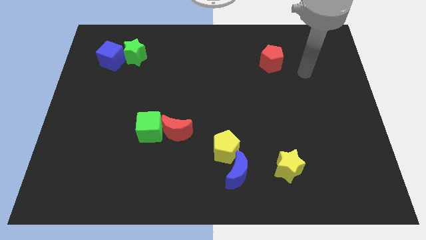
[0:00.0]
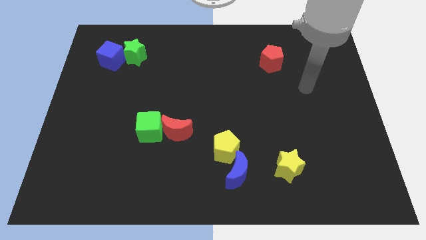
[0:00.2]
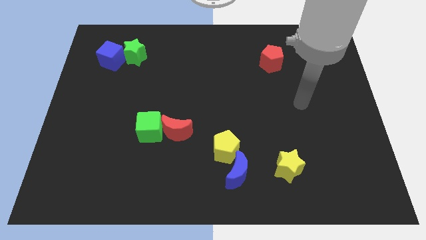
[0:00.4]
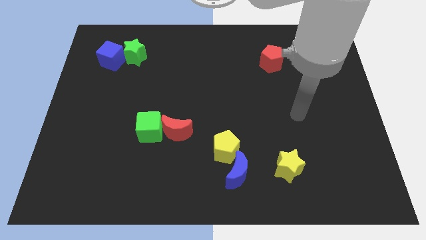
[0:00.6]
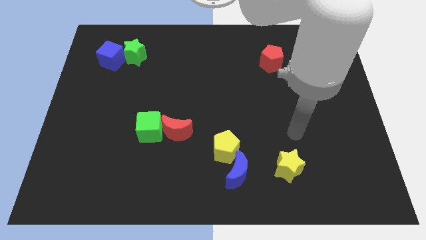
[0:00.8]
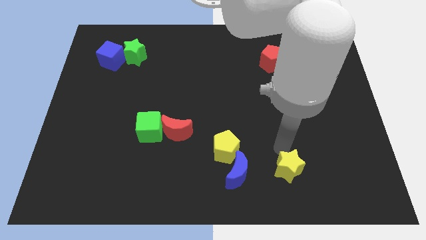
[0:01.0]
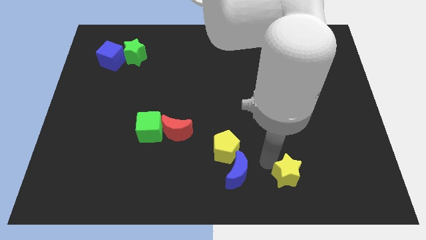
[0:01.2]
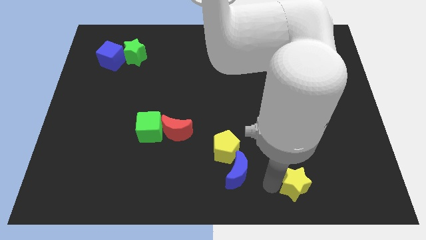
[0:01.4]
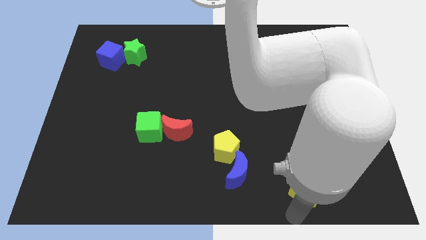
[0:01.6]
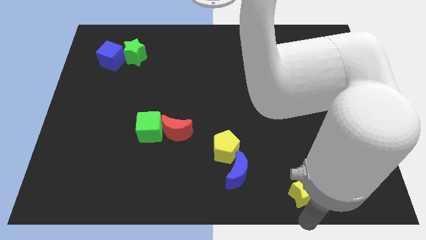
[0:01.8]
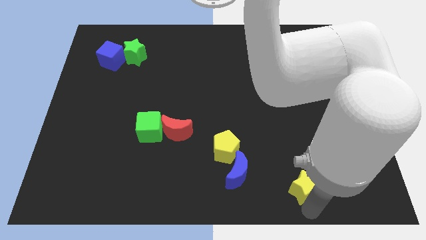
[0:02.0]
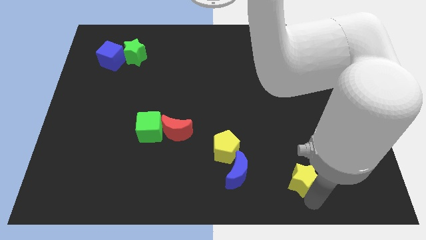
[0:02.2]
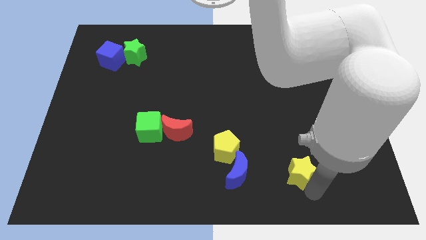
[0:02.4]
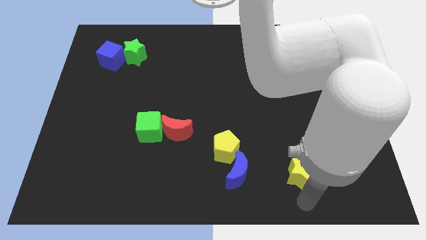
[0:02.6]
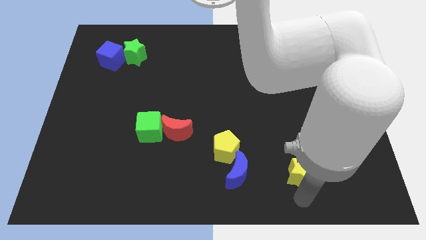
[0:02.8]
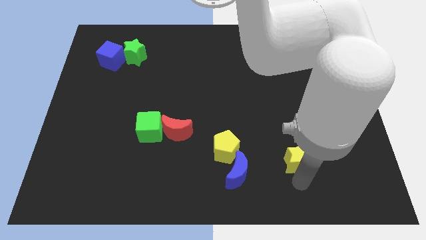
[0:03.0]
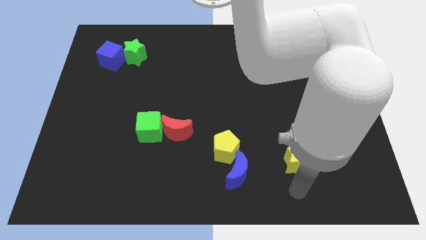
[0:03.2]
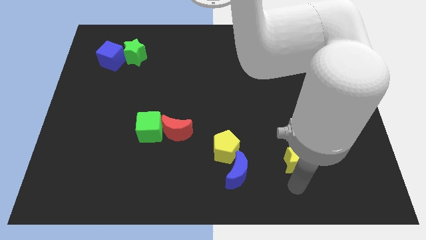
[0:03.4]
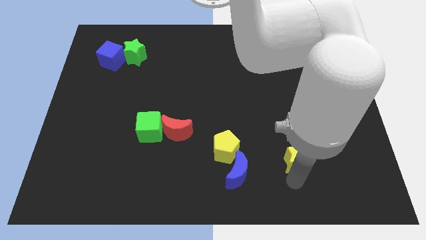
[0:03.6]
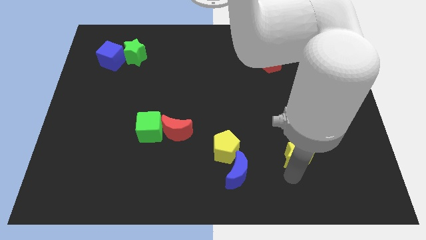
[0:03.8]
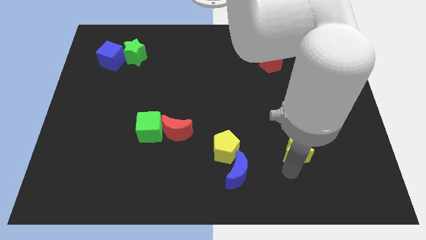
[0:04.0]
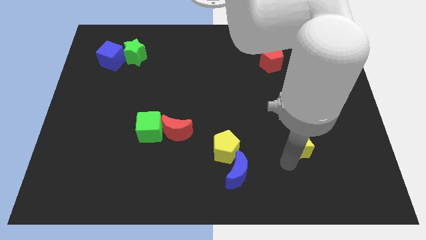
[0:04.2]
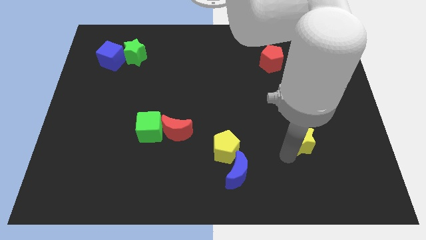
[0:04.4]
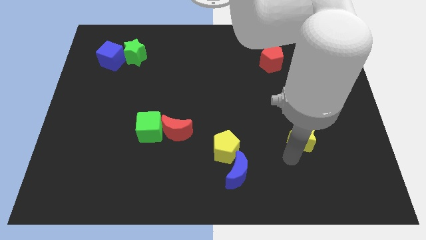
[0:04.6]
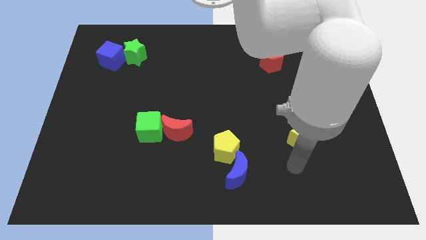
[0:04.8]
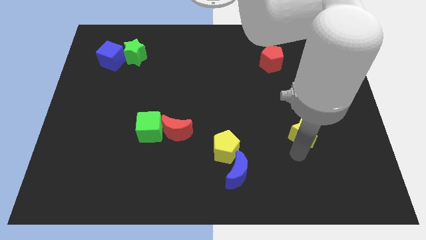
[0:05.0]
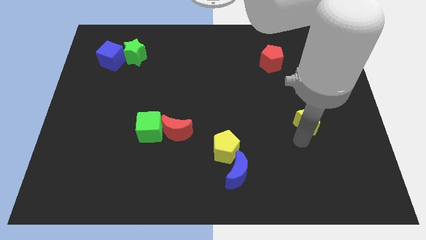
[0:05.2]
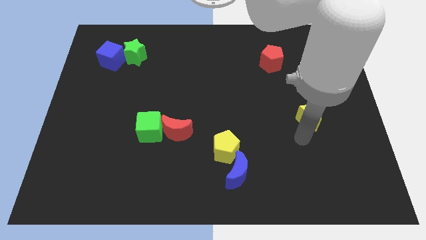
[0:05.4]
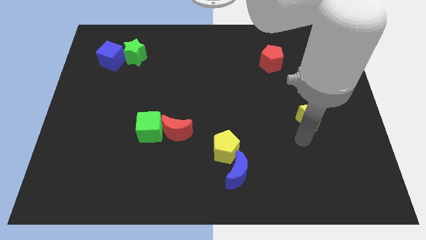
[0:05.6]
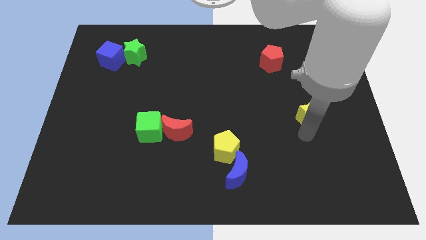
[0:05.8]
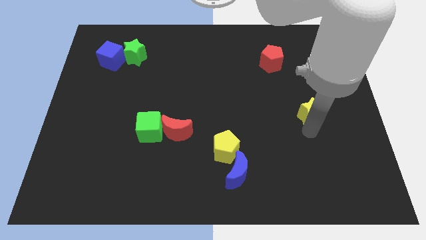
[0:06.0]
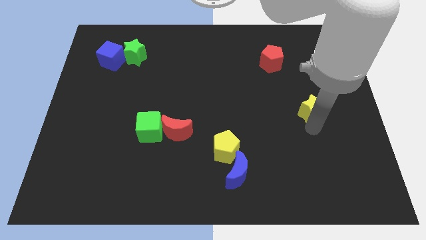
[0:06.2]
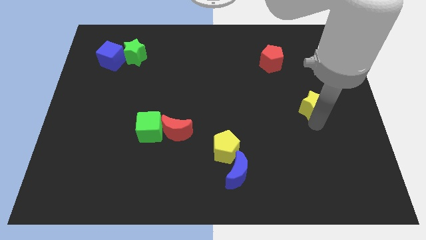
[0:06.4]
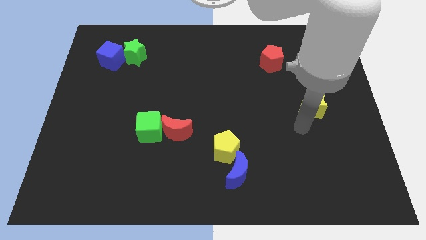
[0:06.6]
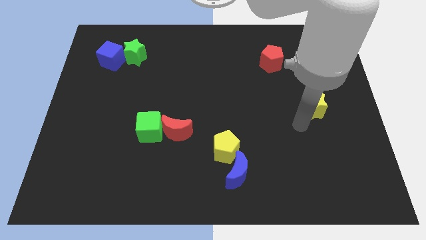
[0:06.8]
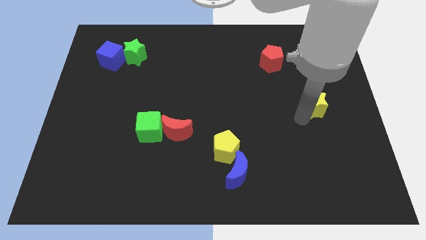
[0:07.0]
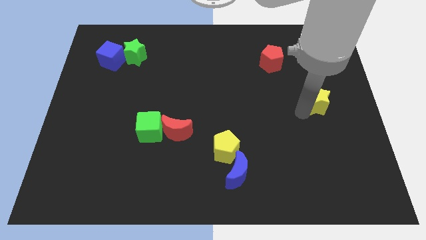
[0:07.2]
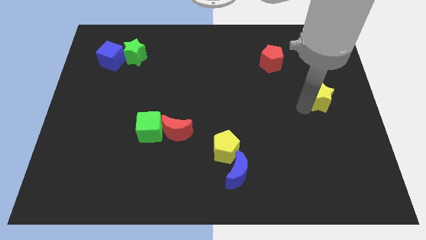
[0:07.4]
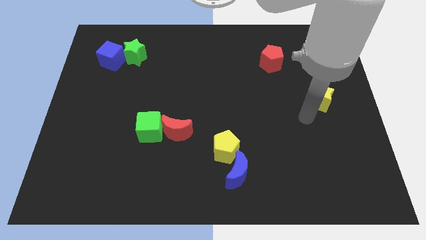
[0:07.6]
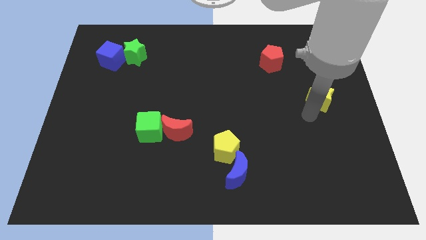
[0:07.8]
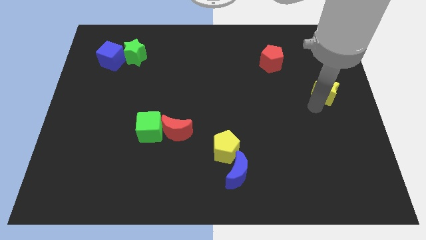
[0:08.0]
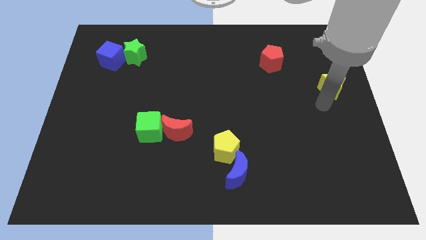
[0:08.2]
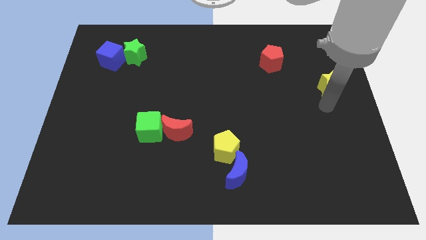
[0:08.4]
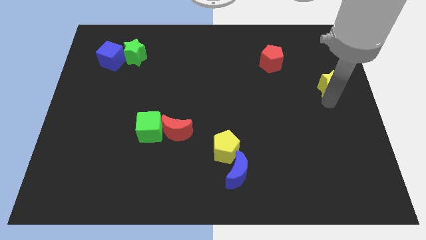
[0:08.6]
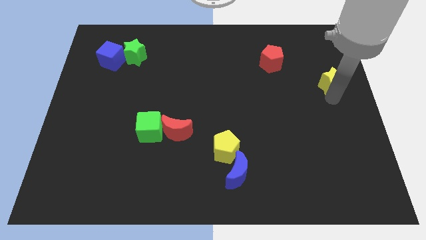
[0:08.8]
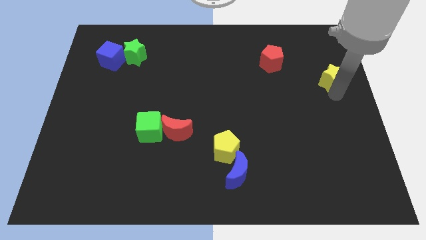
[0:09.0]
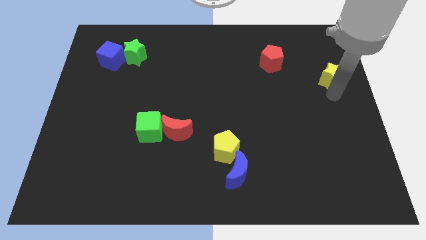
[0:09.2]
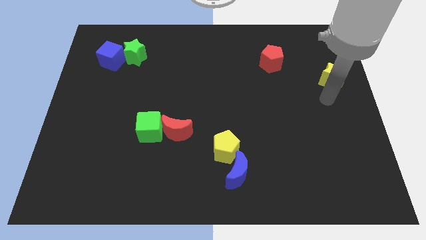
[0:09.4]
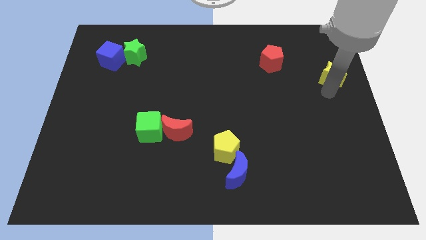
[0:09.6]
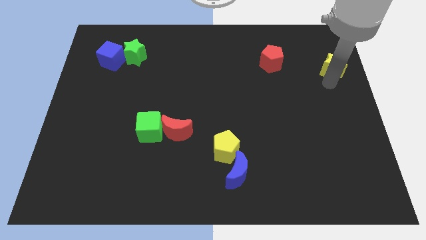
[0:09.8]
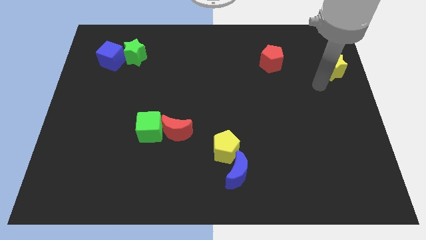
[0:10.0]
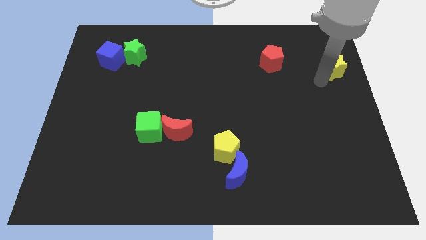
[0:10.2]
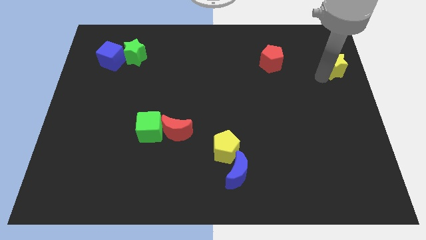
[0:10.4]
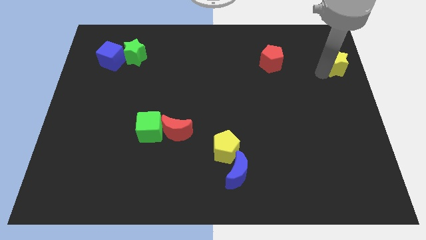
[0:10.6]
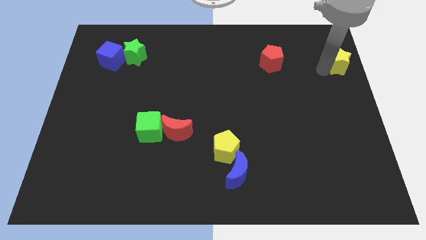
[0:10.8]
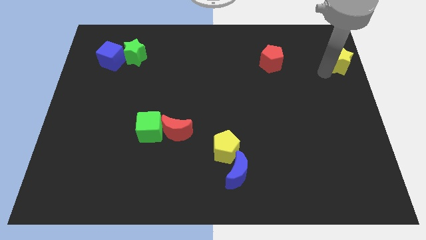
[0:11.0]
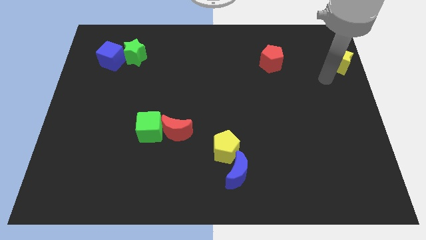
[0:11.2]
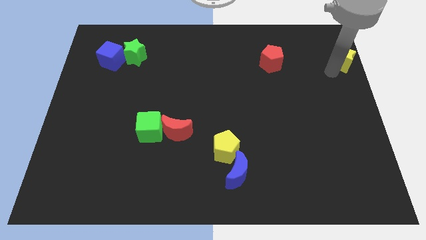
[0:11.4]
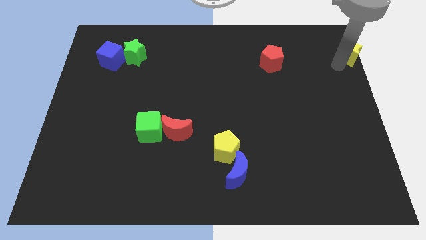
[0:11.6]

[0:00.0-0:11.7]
slide the yellow star to the top right
